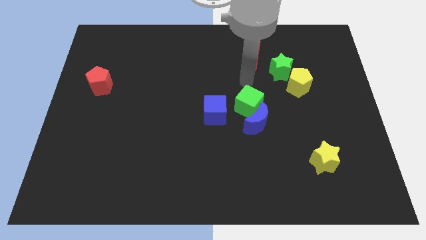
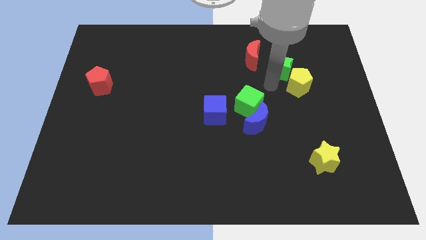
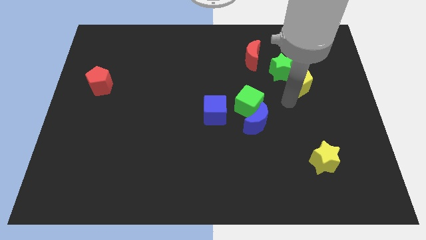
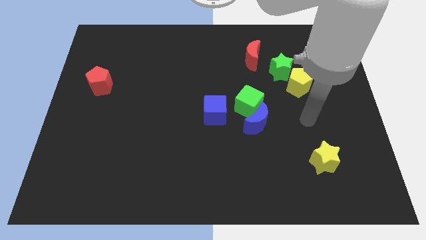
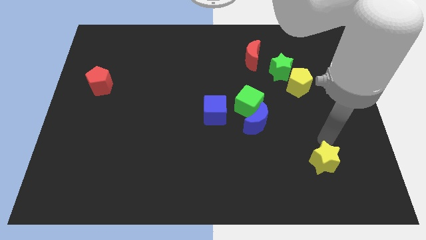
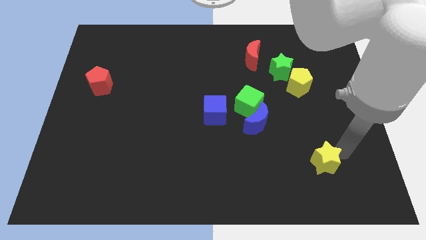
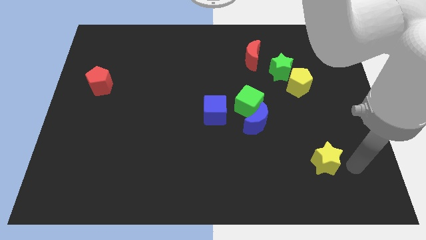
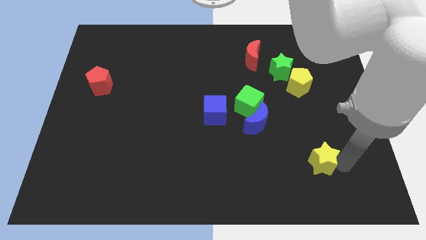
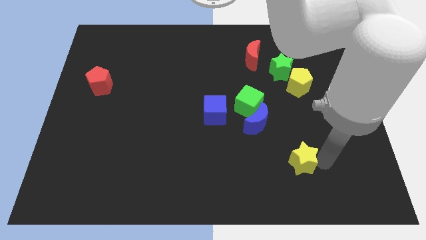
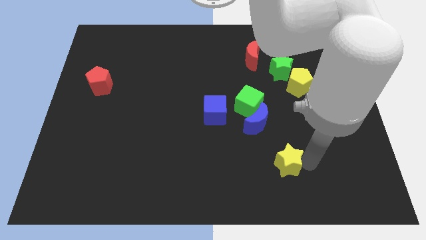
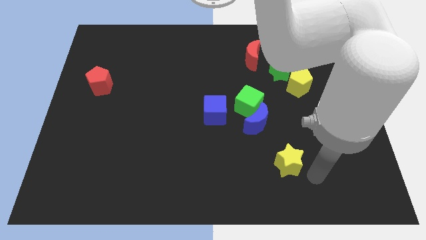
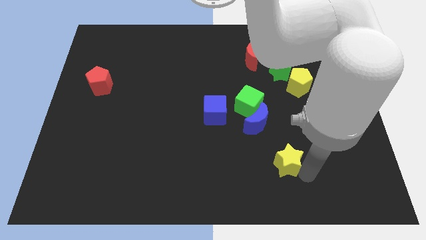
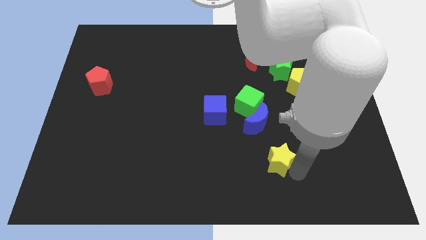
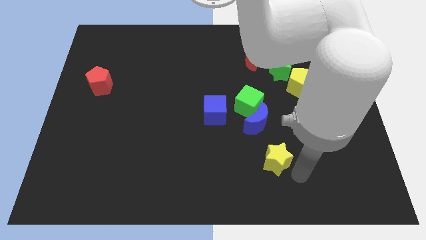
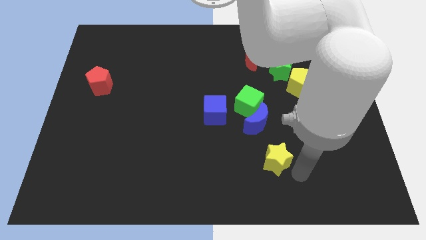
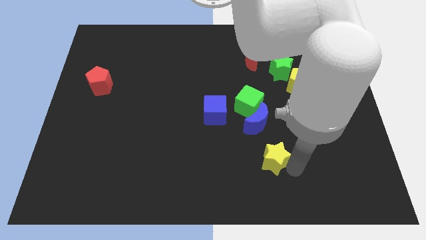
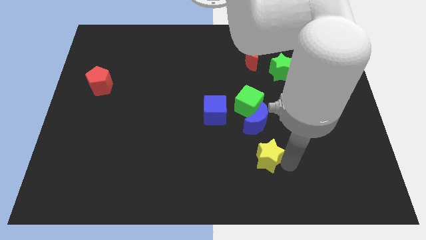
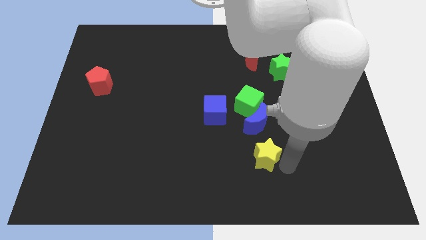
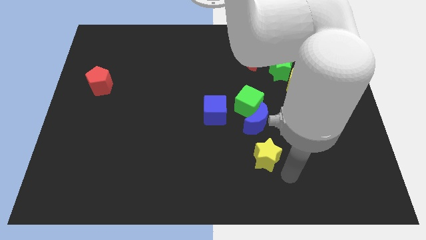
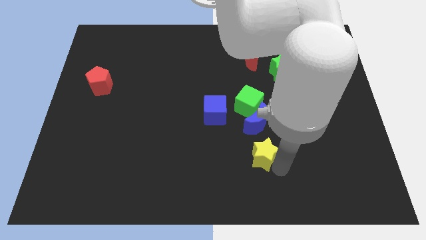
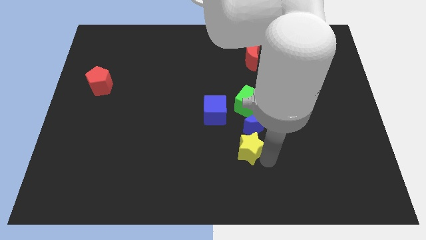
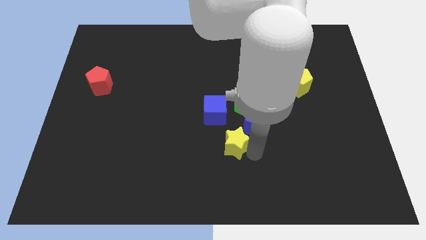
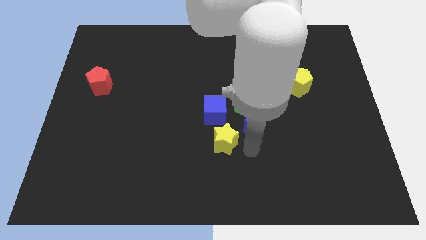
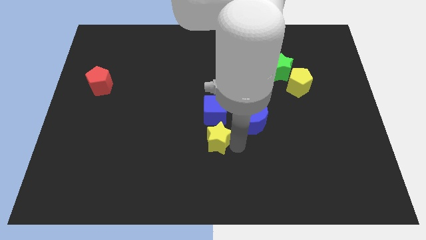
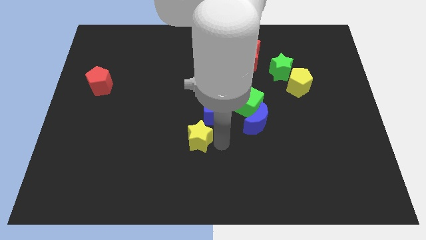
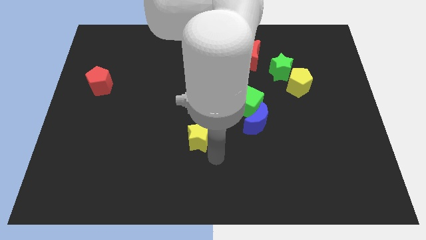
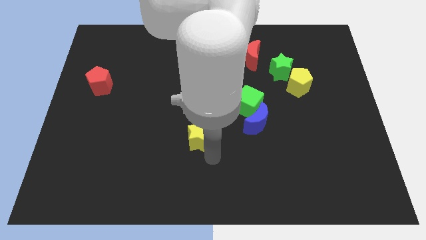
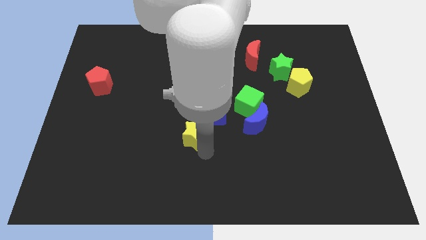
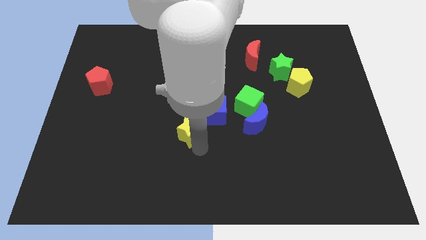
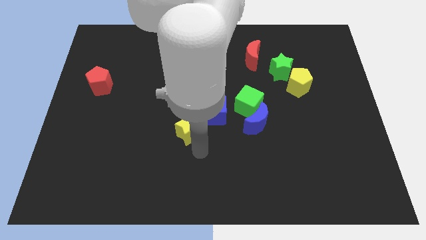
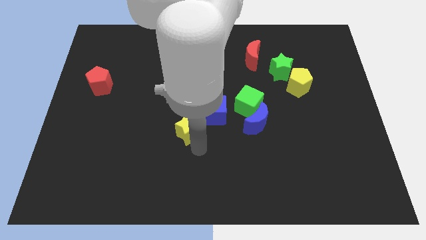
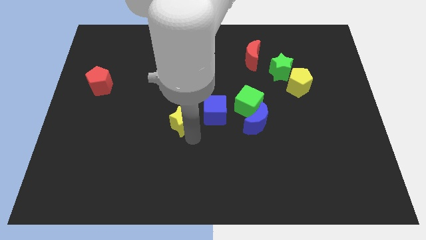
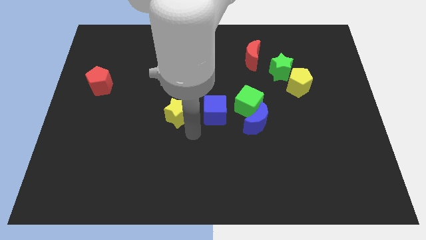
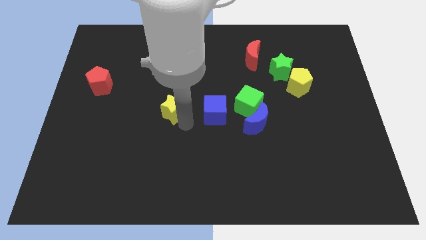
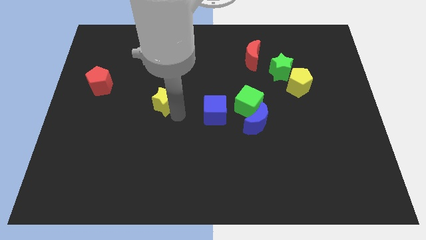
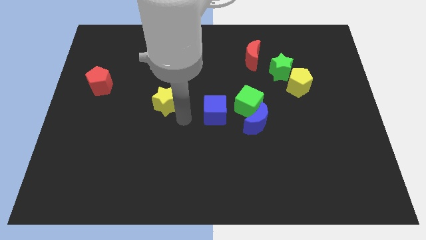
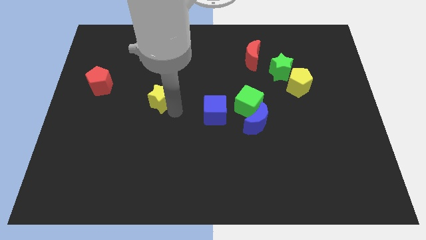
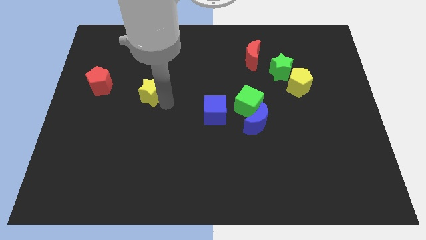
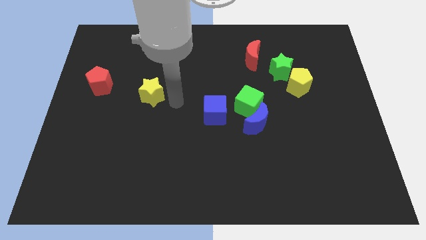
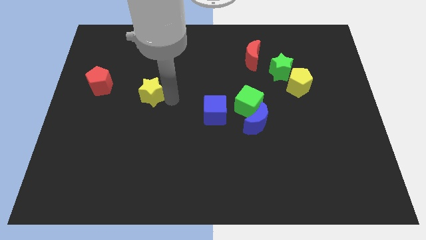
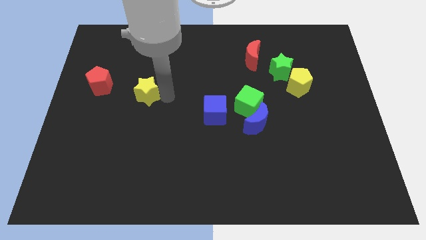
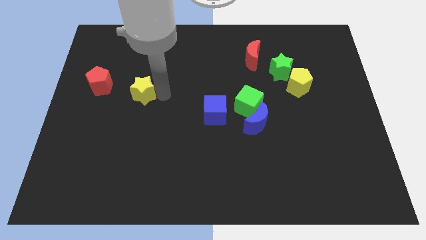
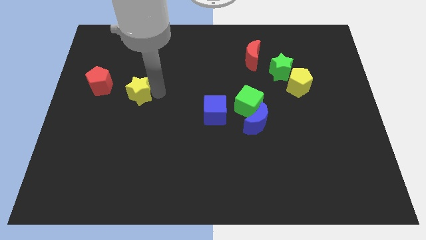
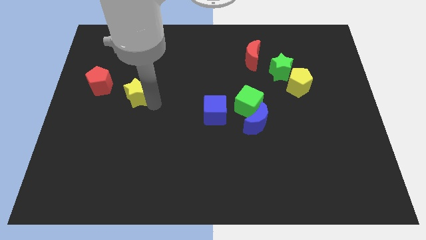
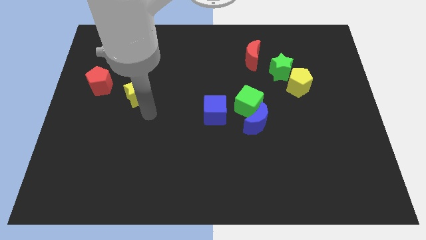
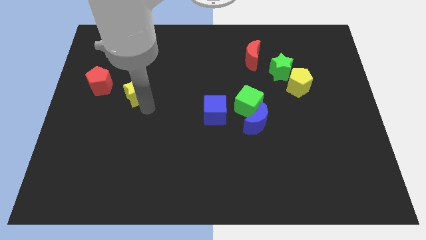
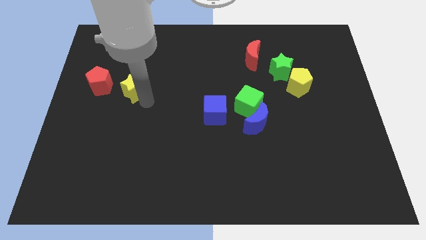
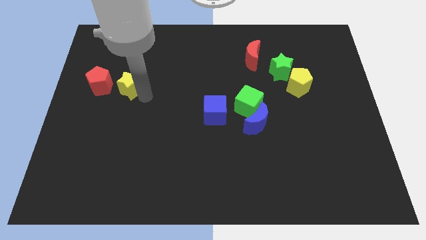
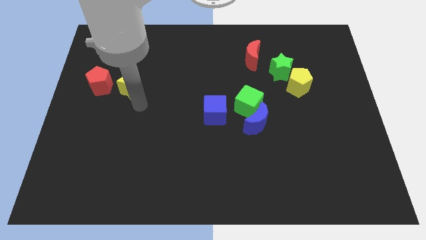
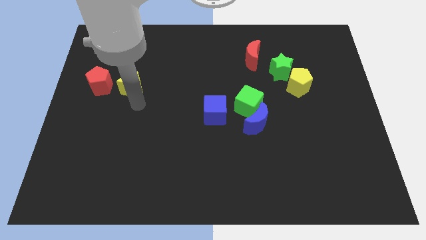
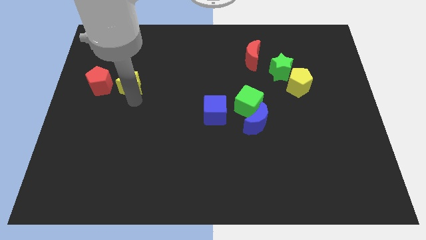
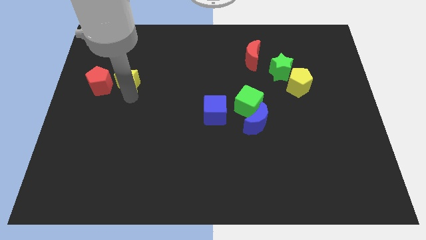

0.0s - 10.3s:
put the yellow star to the top right side of the red pentagon

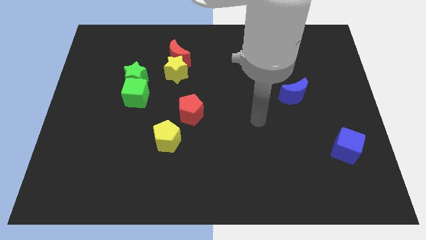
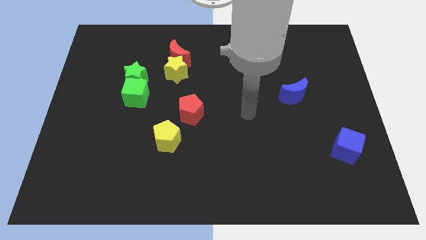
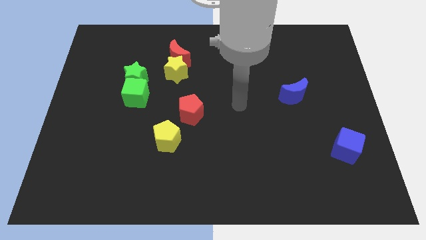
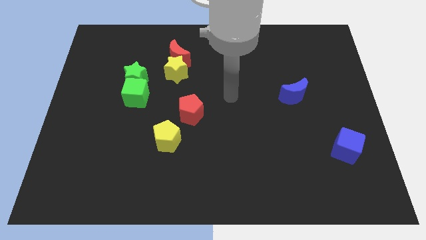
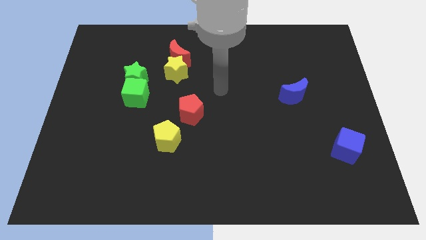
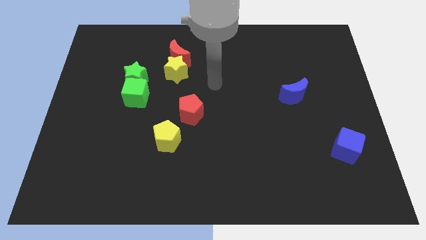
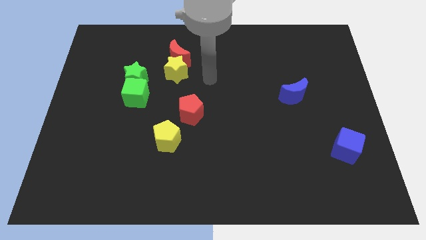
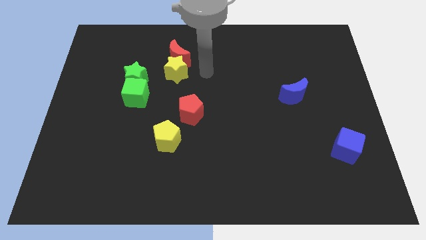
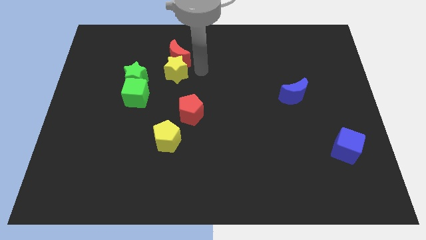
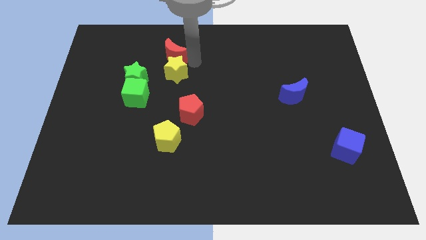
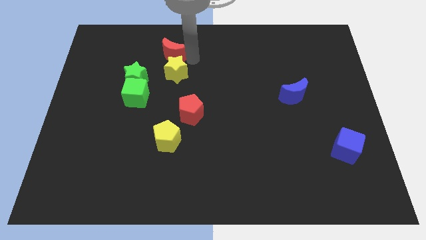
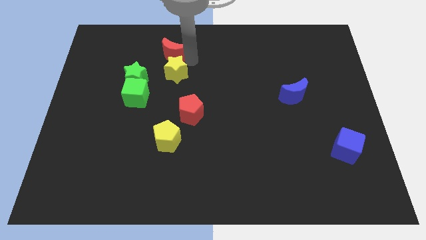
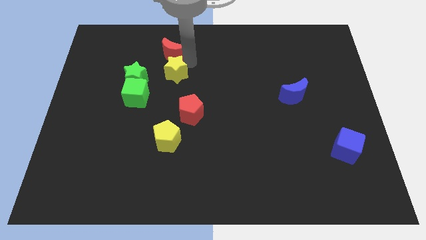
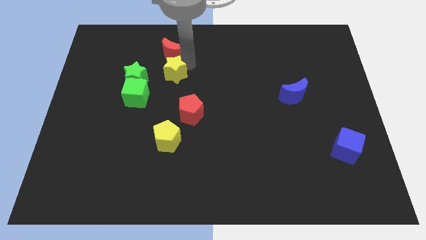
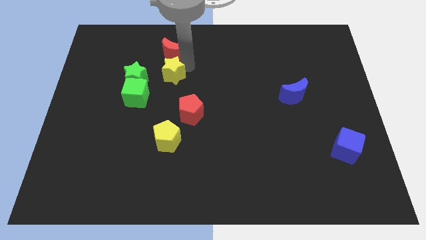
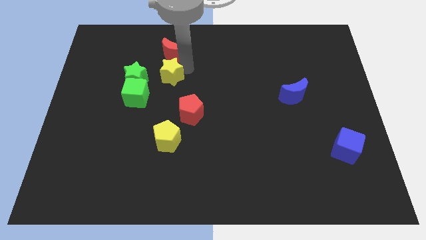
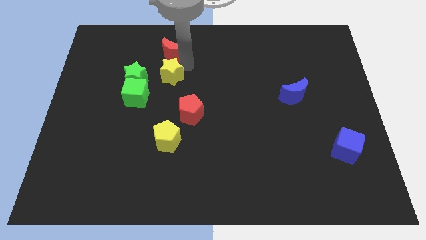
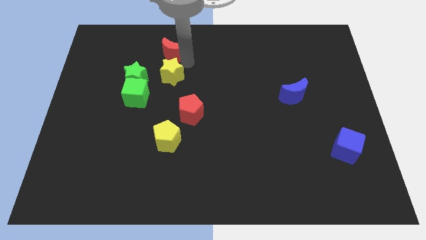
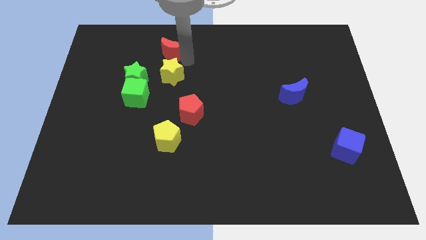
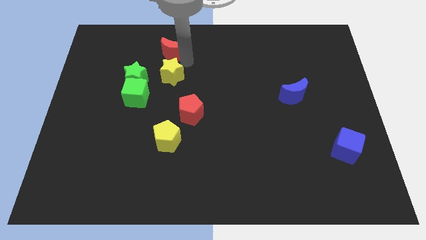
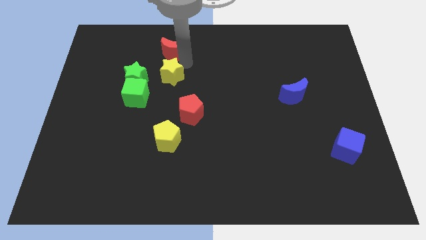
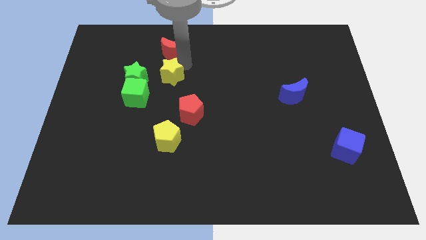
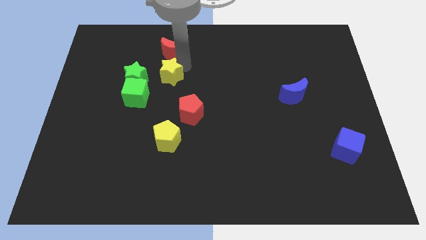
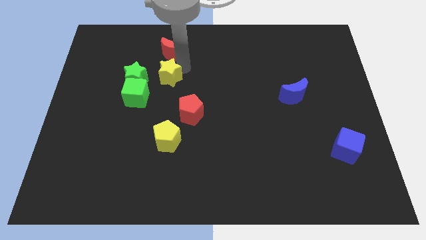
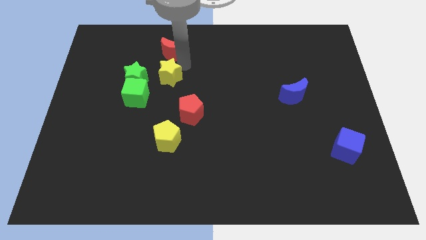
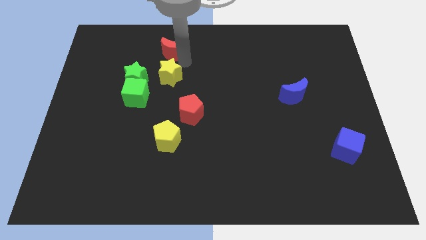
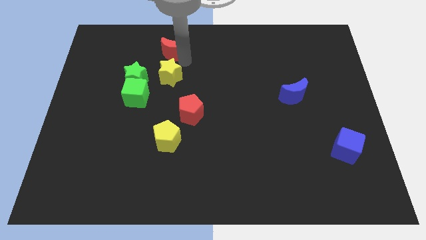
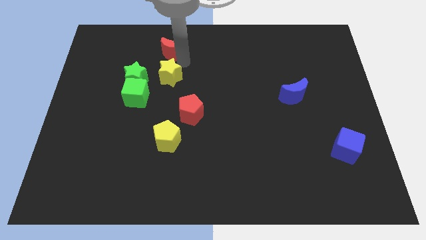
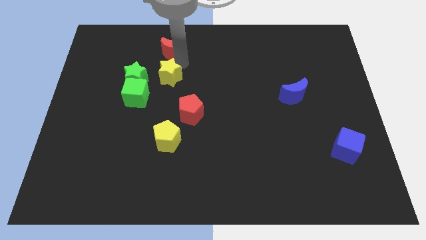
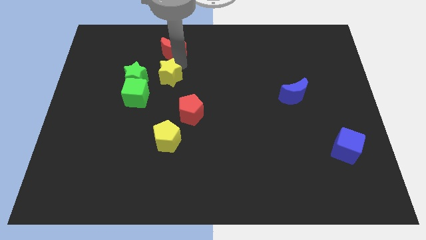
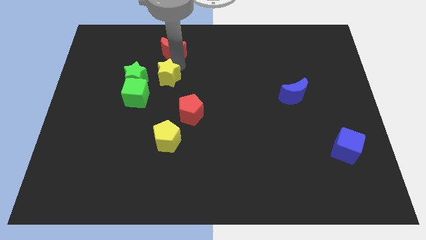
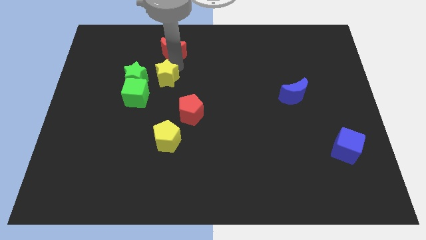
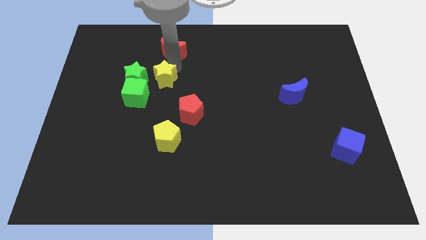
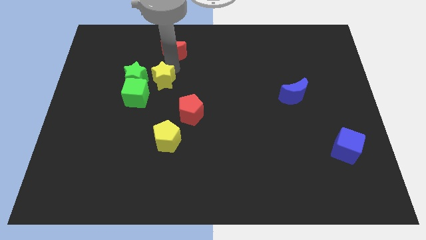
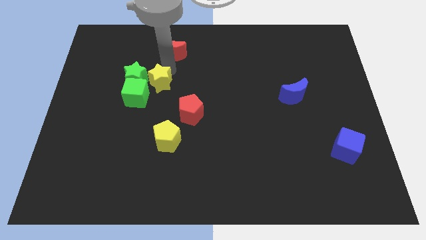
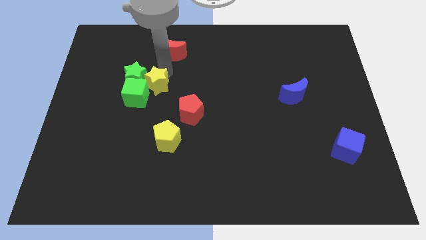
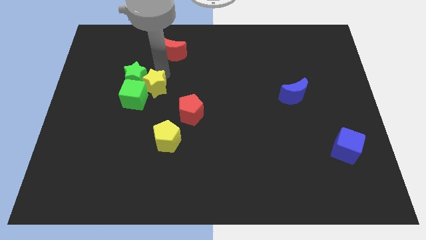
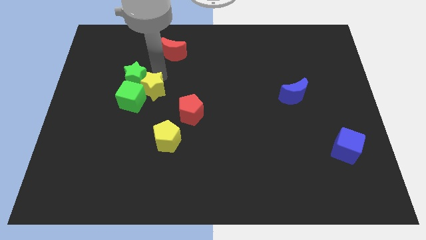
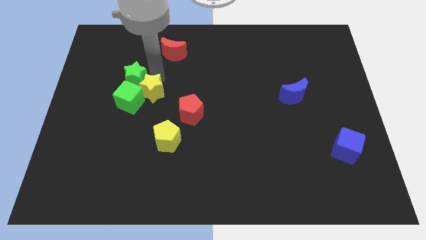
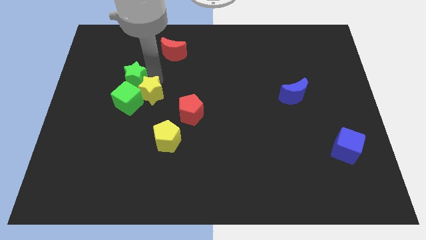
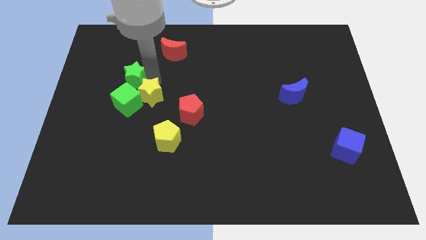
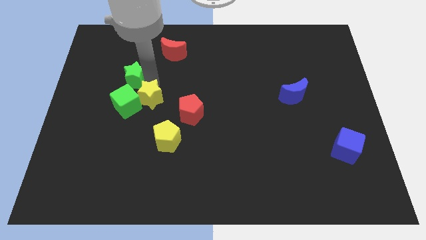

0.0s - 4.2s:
move the yellow star to the left of the red pentagon
